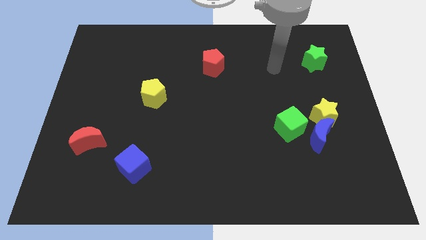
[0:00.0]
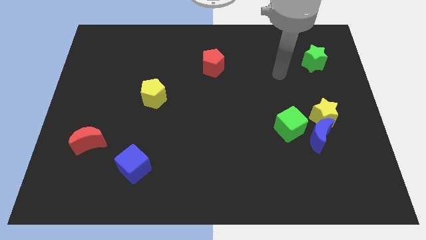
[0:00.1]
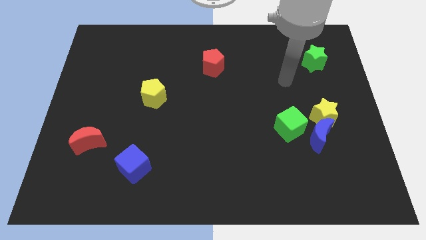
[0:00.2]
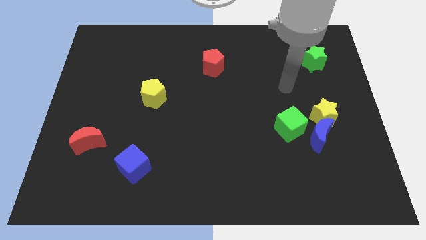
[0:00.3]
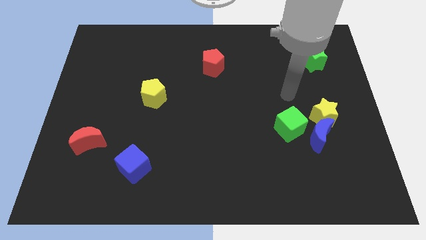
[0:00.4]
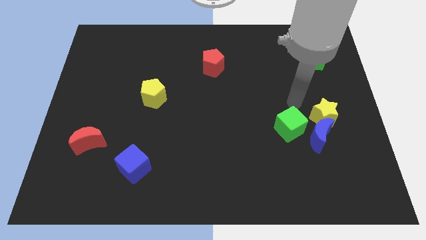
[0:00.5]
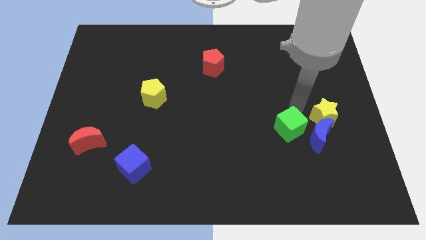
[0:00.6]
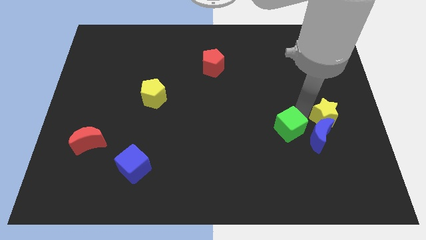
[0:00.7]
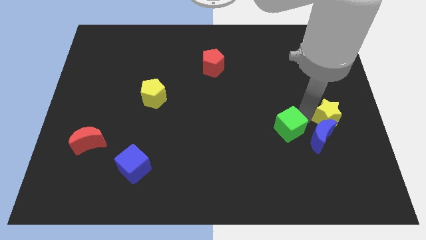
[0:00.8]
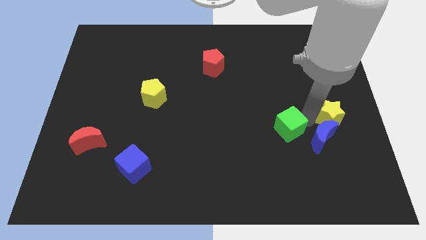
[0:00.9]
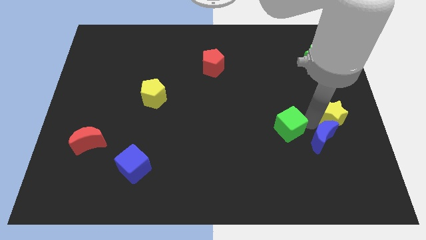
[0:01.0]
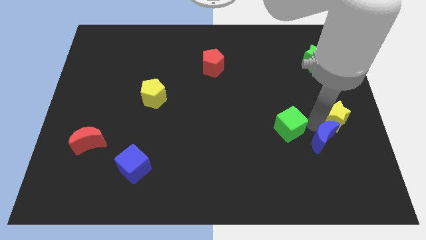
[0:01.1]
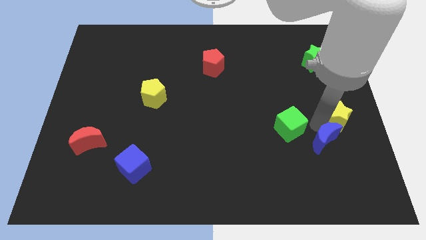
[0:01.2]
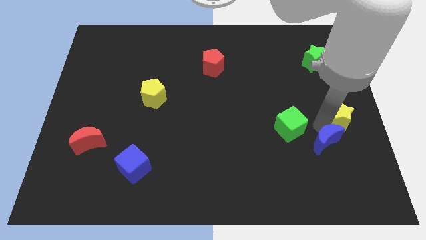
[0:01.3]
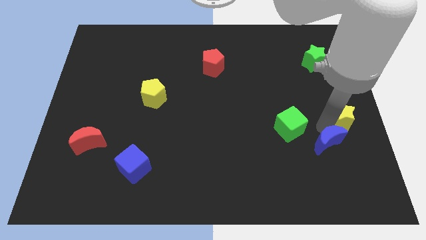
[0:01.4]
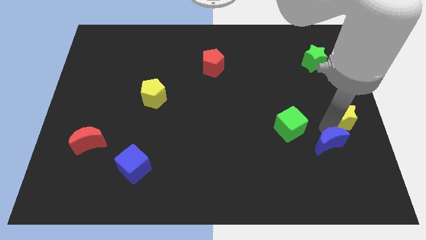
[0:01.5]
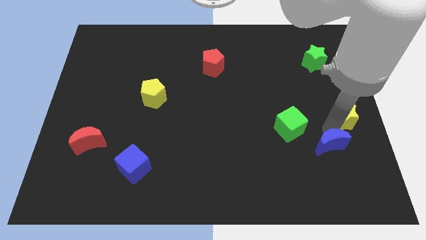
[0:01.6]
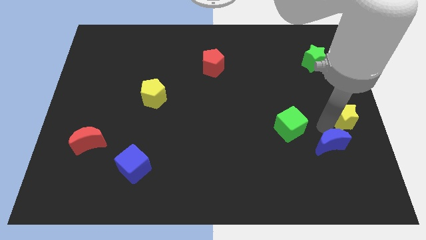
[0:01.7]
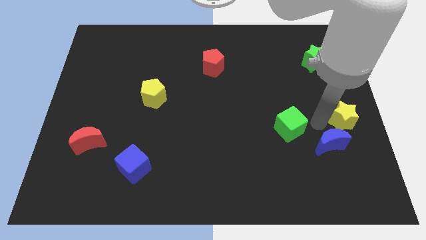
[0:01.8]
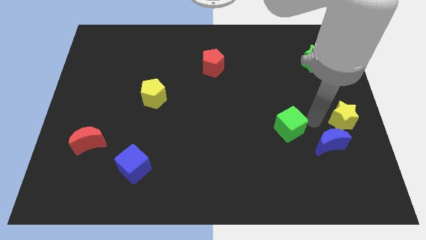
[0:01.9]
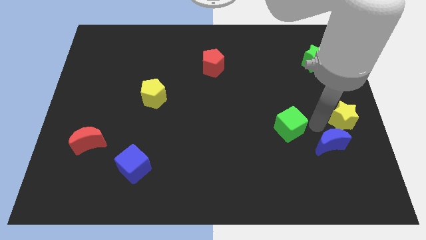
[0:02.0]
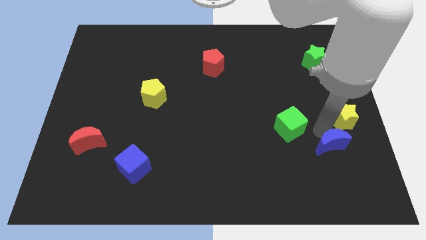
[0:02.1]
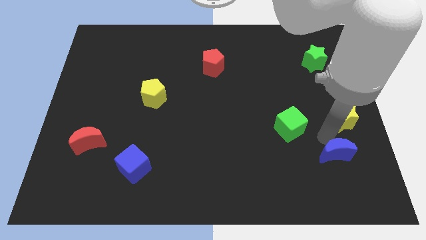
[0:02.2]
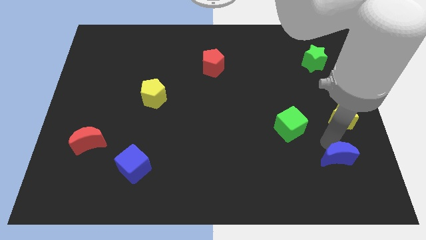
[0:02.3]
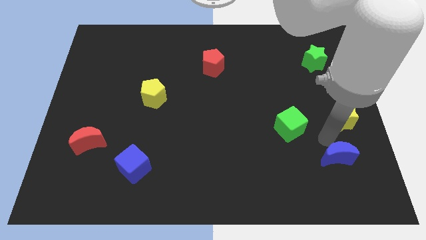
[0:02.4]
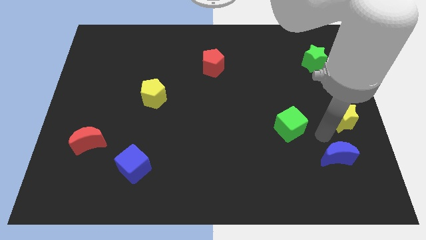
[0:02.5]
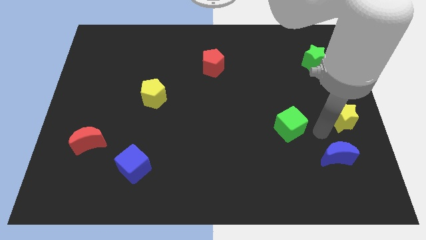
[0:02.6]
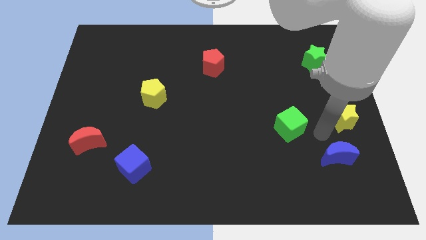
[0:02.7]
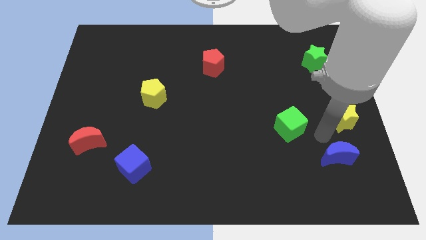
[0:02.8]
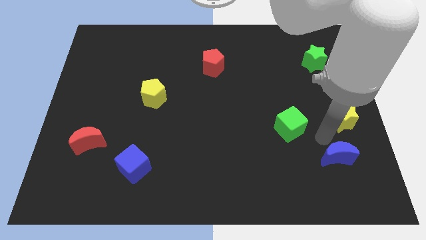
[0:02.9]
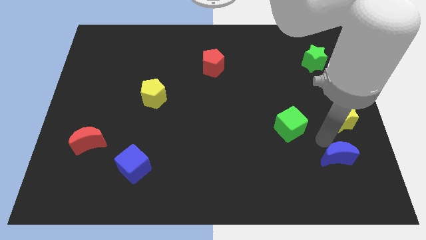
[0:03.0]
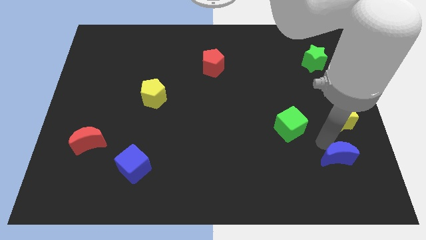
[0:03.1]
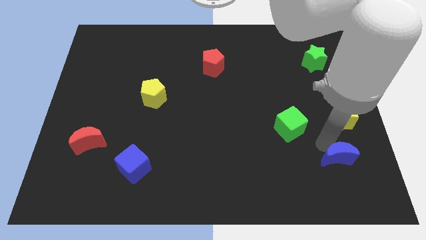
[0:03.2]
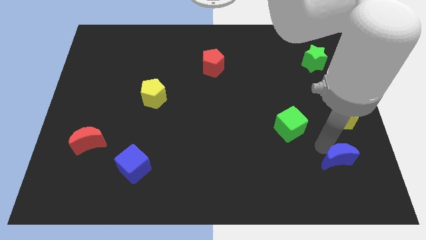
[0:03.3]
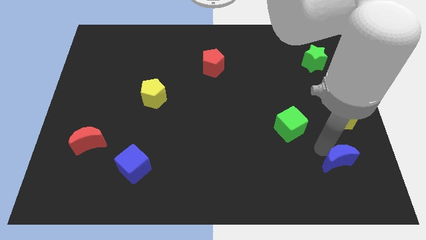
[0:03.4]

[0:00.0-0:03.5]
separate the blue moon from the yellow star and green cube

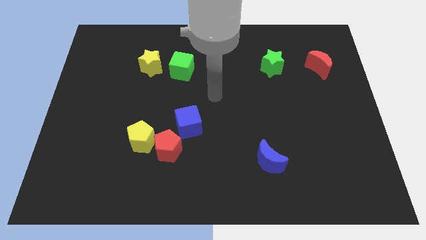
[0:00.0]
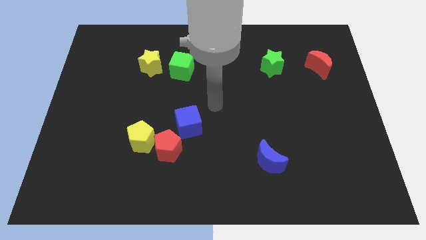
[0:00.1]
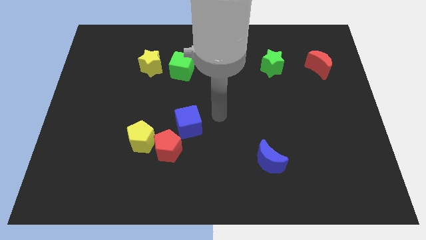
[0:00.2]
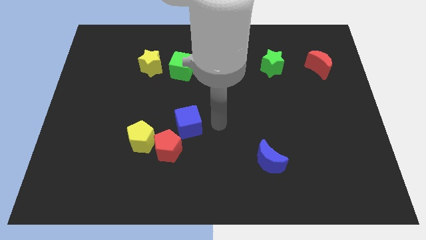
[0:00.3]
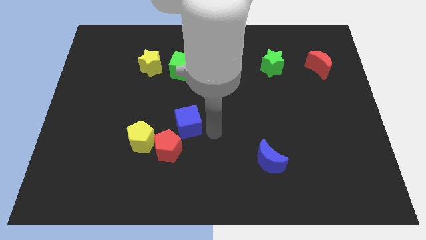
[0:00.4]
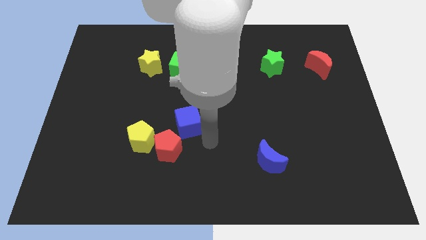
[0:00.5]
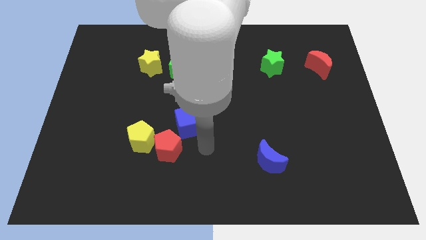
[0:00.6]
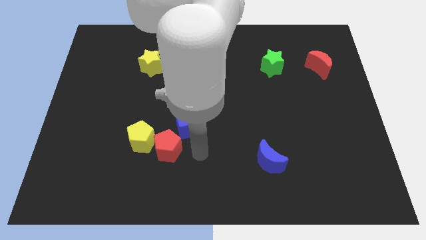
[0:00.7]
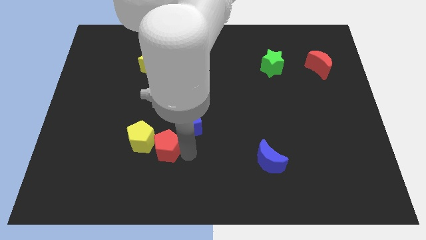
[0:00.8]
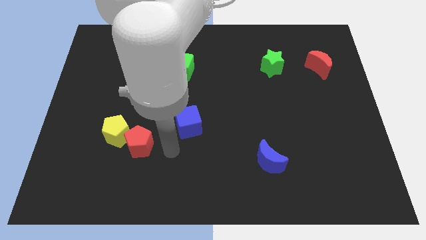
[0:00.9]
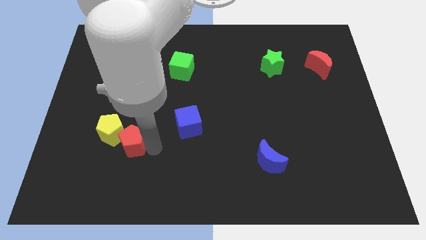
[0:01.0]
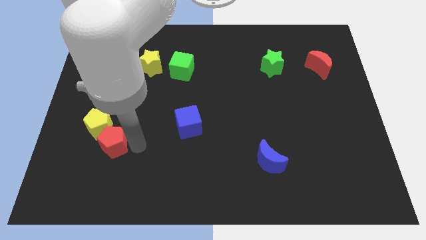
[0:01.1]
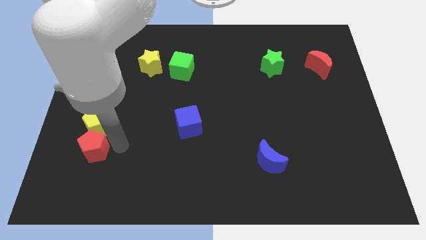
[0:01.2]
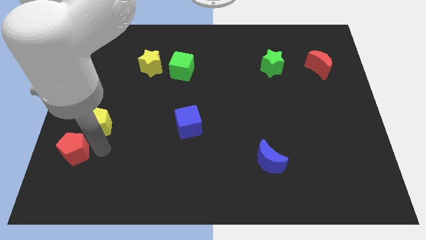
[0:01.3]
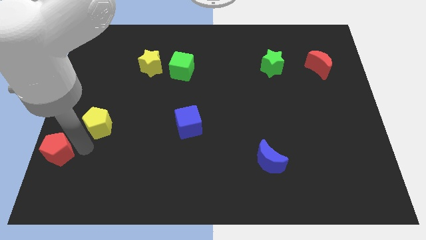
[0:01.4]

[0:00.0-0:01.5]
pull the yellow pentagon apart from the red pentagon

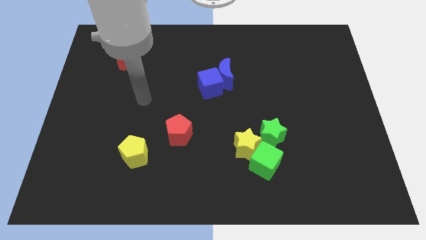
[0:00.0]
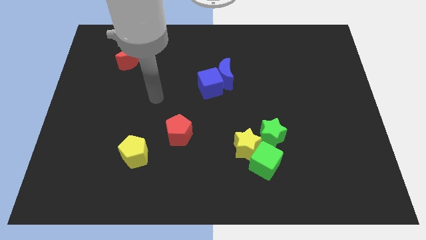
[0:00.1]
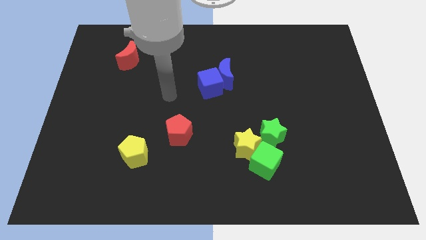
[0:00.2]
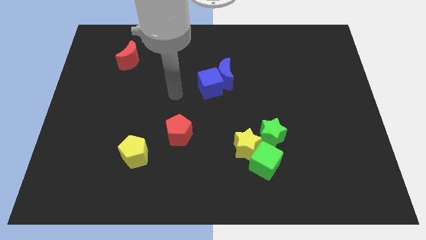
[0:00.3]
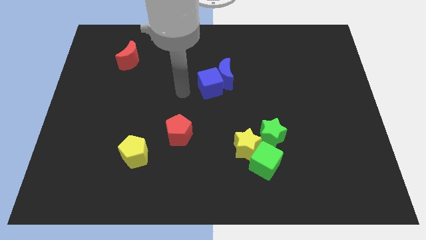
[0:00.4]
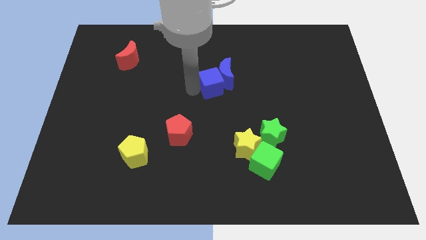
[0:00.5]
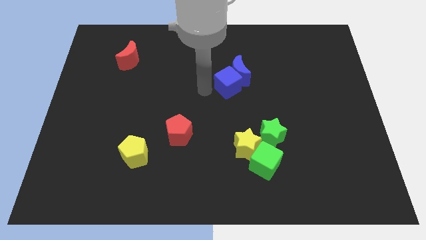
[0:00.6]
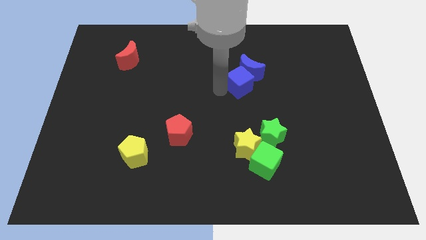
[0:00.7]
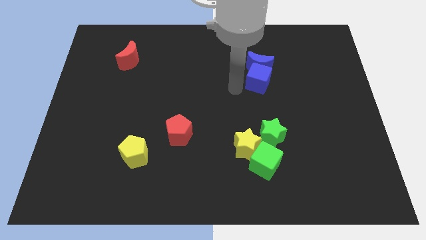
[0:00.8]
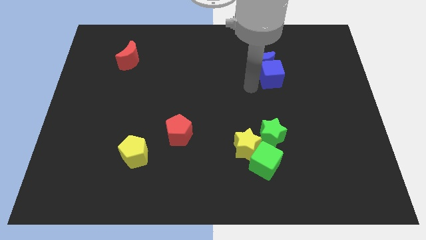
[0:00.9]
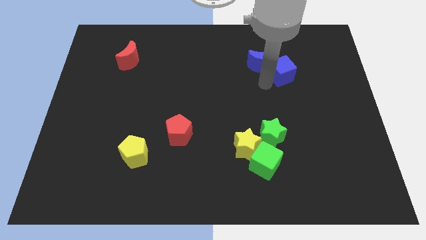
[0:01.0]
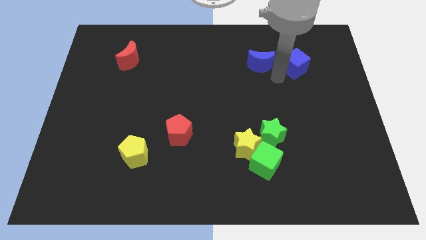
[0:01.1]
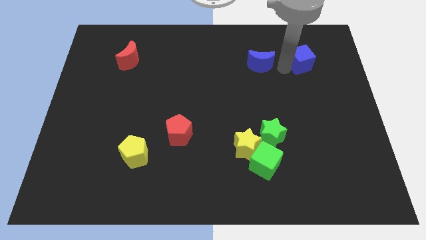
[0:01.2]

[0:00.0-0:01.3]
move the blue moon away from the blue cube

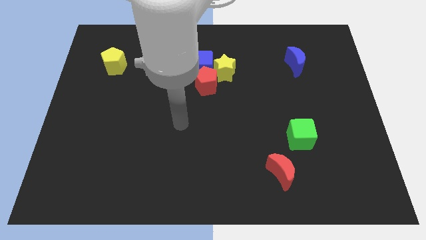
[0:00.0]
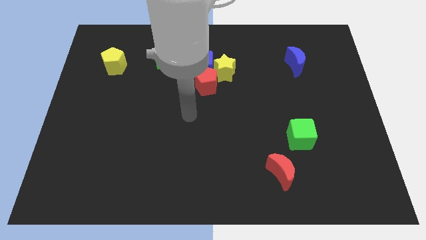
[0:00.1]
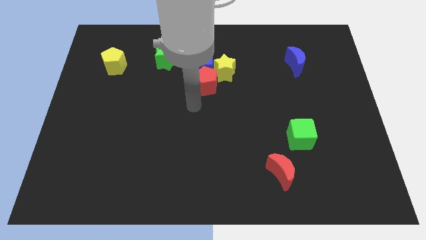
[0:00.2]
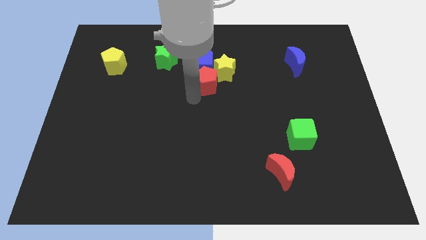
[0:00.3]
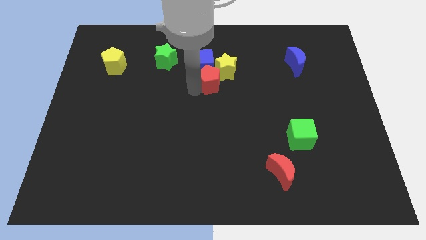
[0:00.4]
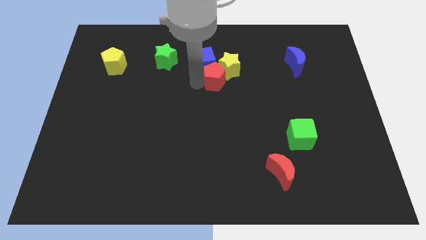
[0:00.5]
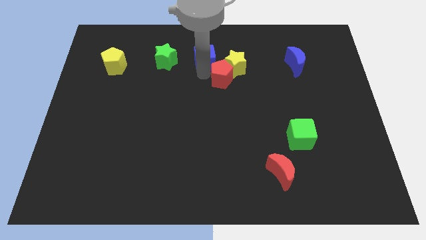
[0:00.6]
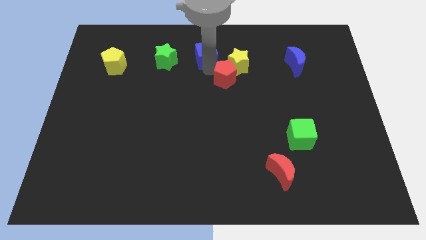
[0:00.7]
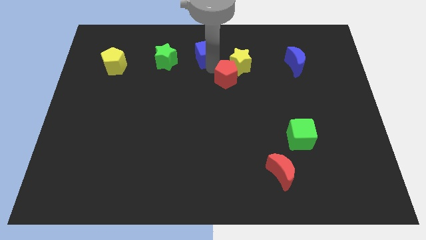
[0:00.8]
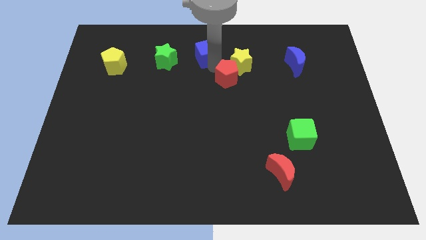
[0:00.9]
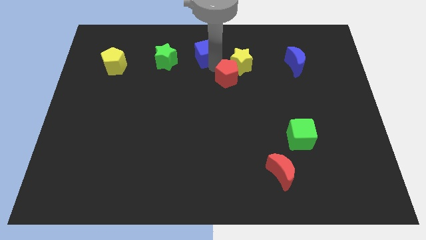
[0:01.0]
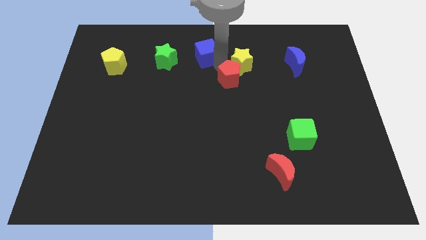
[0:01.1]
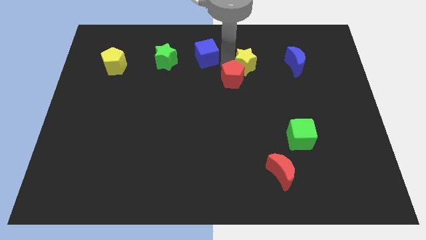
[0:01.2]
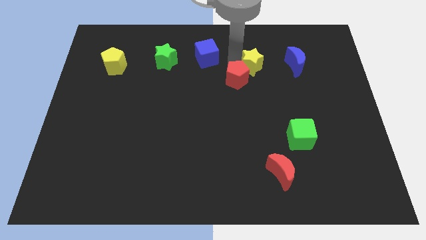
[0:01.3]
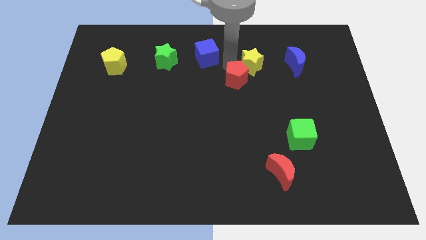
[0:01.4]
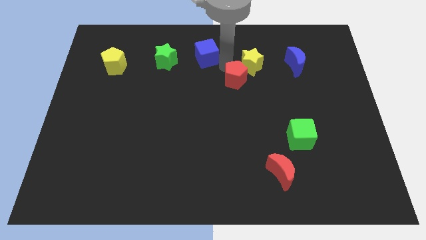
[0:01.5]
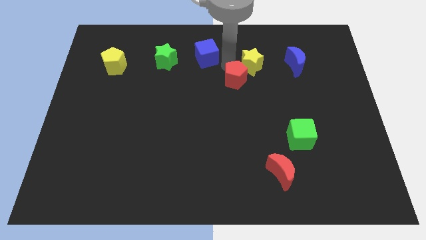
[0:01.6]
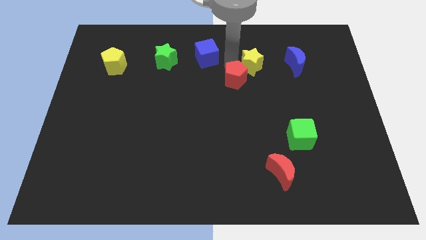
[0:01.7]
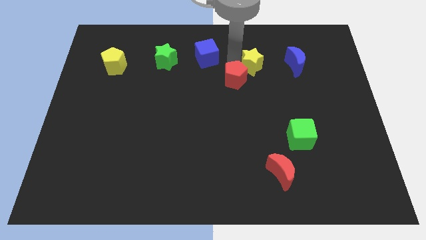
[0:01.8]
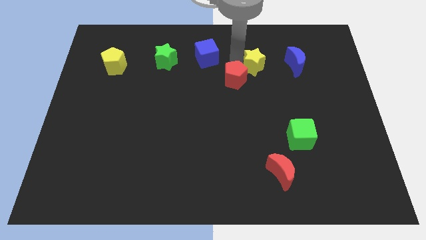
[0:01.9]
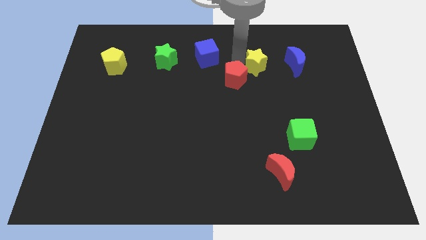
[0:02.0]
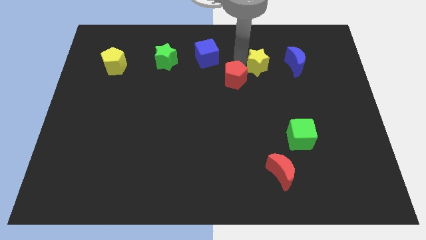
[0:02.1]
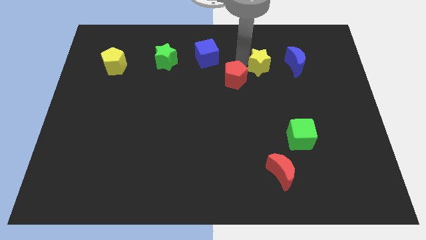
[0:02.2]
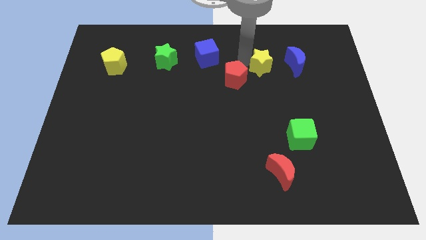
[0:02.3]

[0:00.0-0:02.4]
move the yellow star away from the blue cube and red pentagon

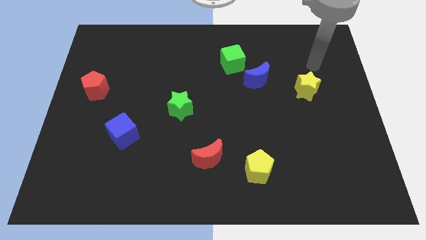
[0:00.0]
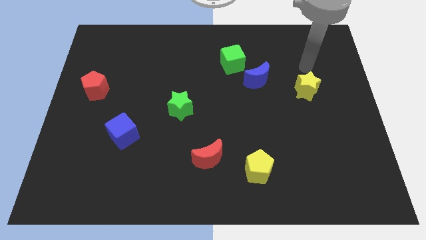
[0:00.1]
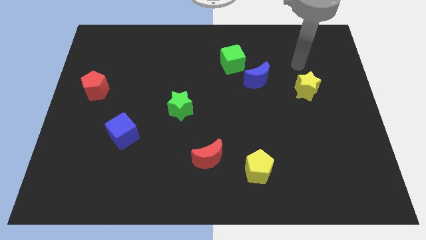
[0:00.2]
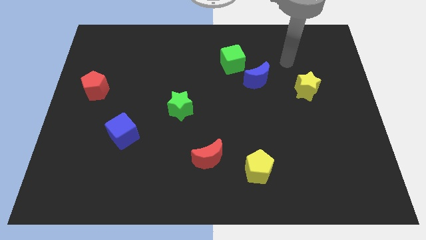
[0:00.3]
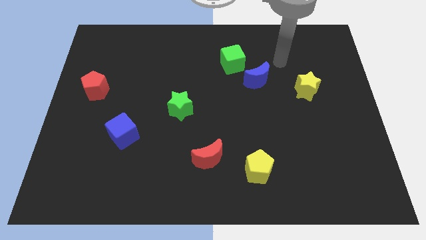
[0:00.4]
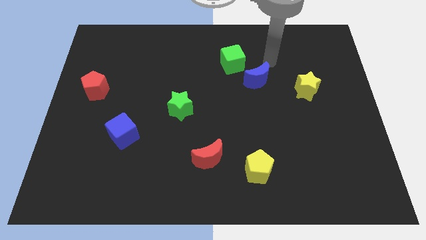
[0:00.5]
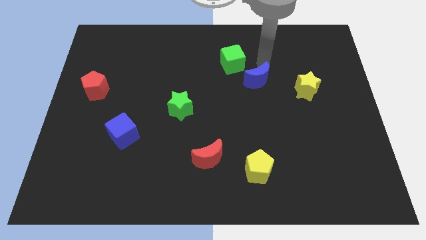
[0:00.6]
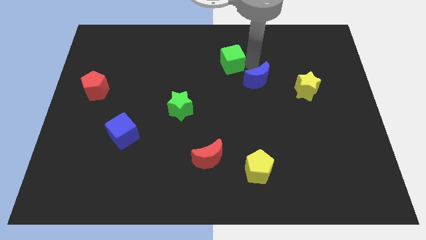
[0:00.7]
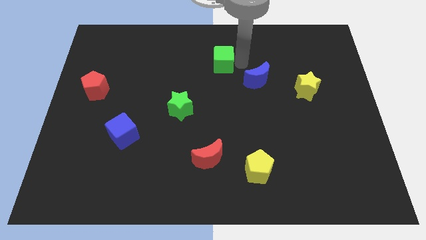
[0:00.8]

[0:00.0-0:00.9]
pull the blue moon apart from the green cube
